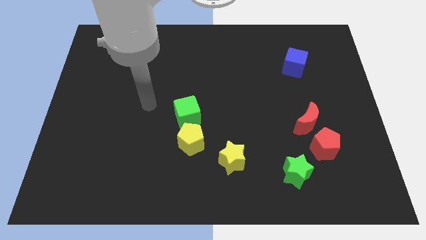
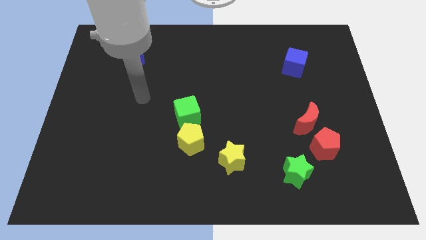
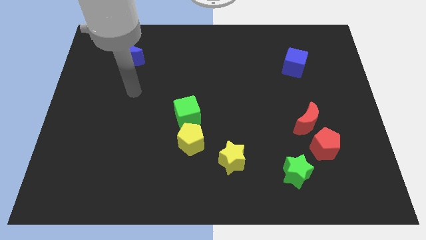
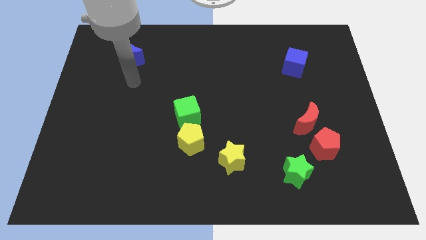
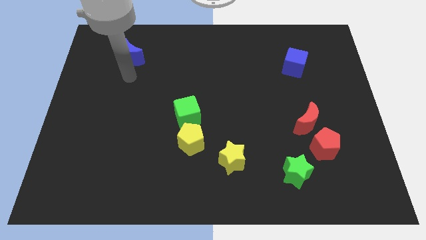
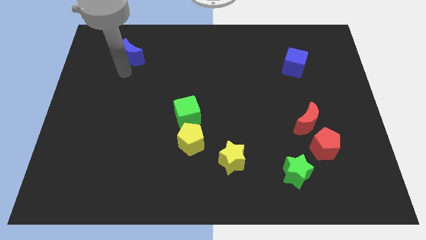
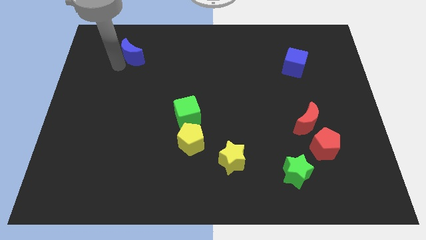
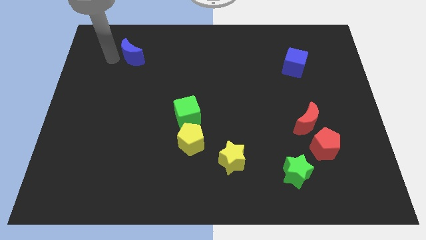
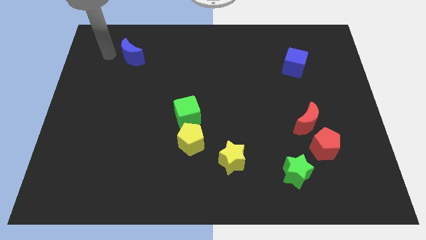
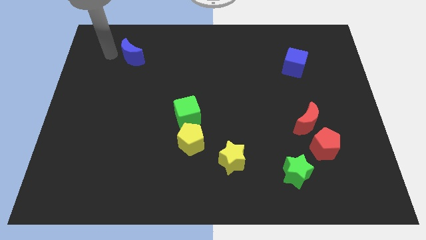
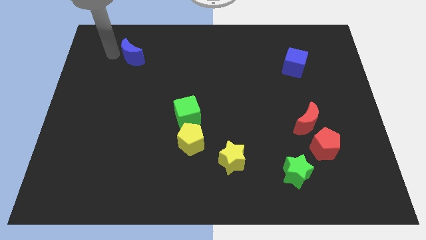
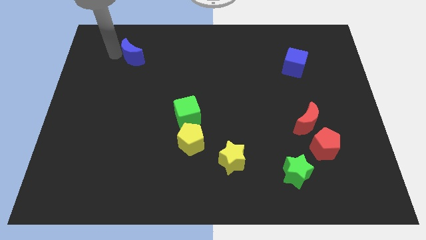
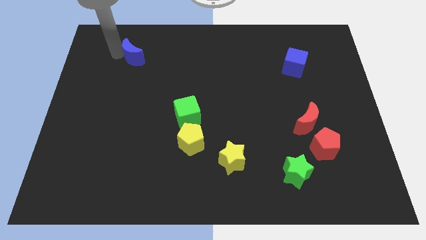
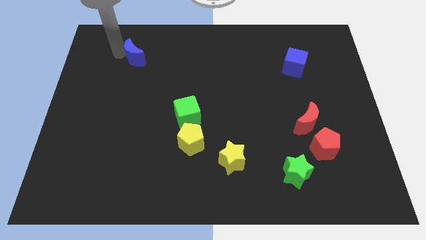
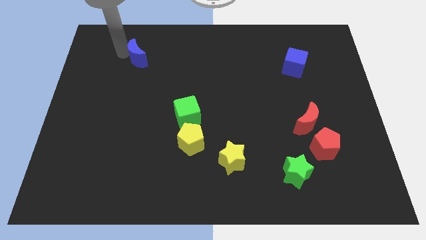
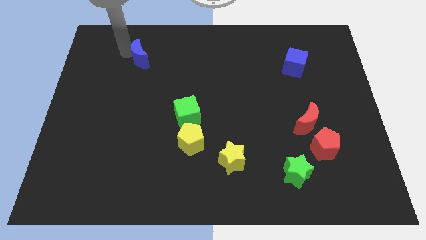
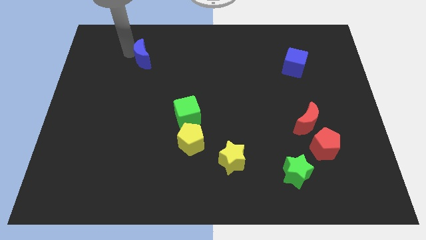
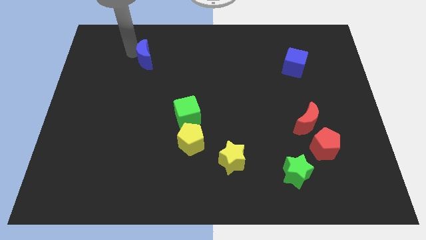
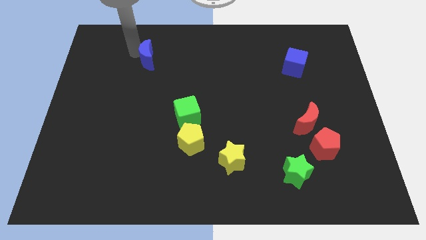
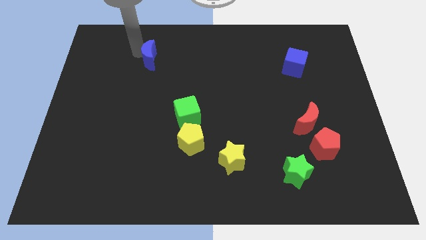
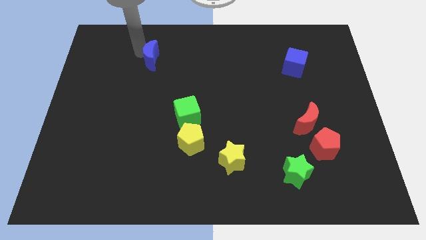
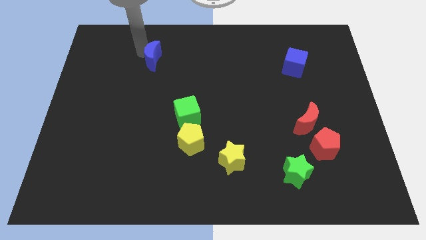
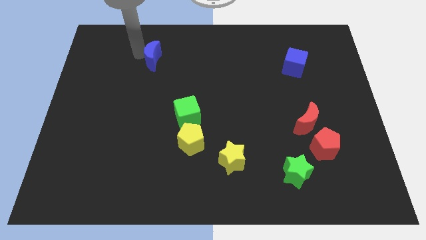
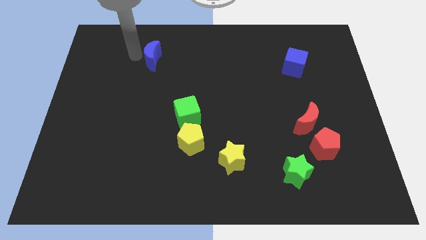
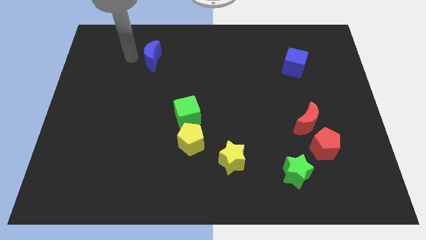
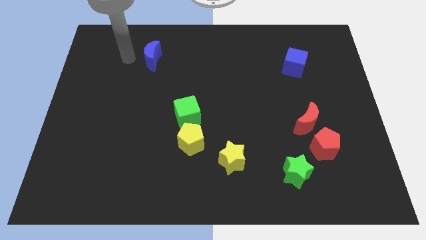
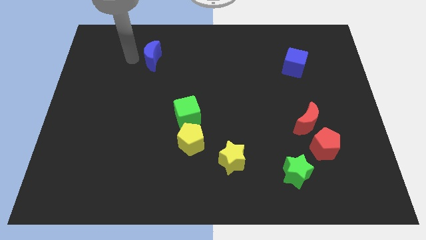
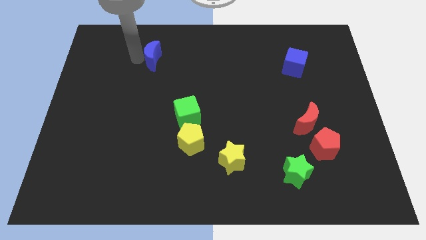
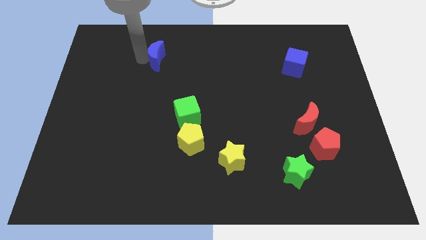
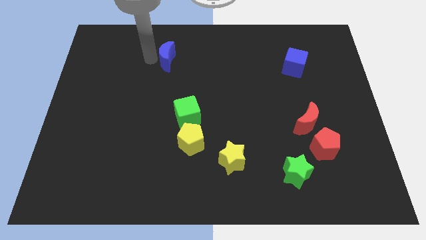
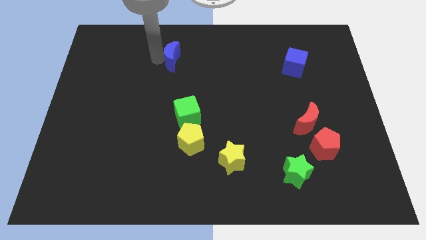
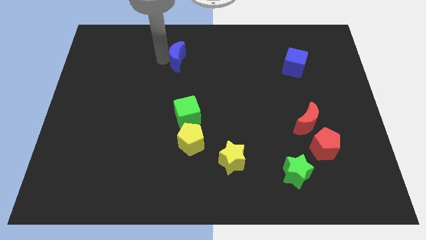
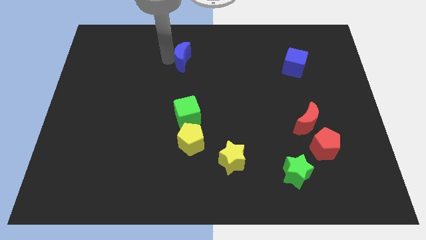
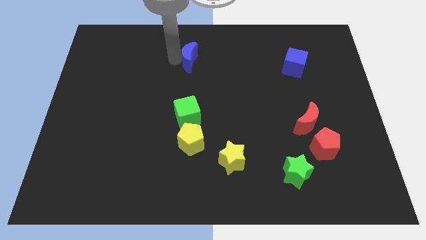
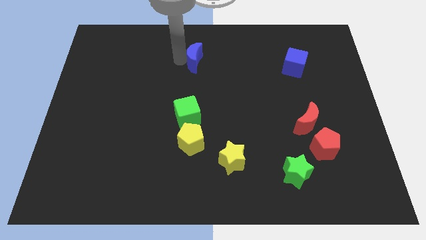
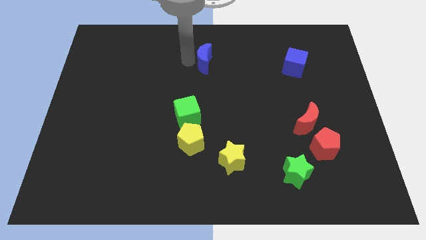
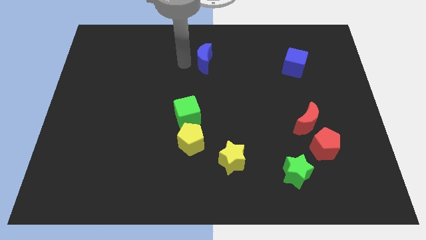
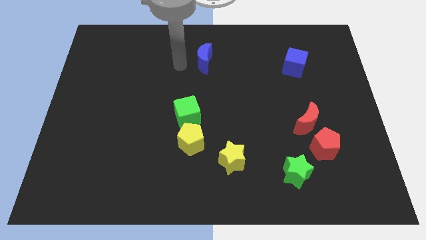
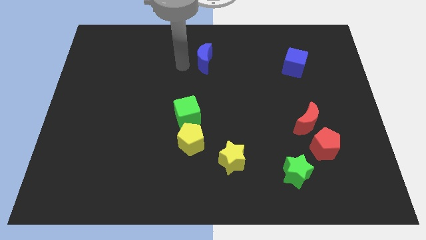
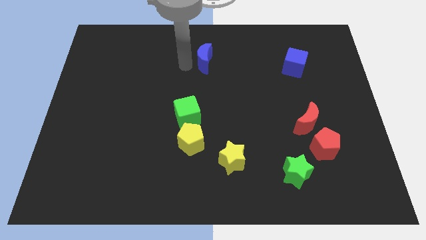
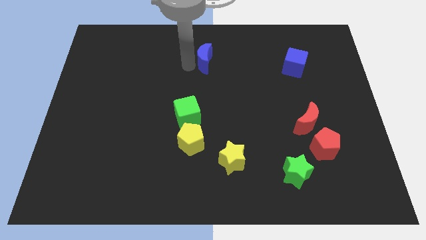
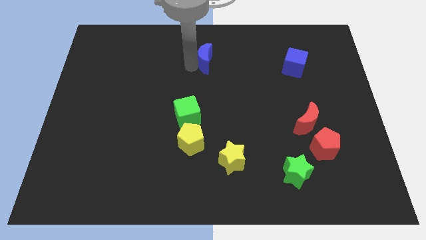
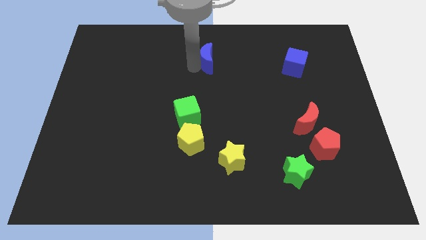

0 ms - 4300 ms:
move the blue moon right

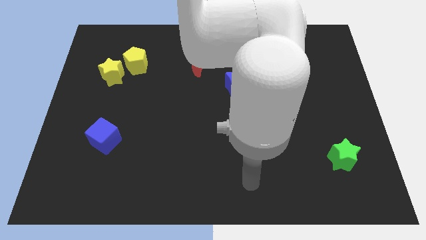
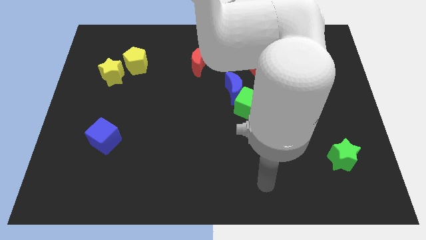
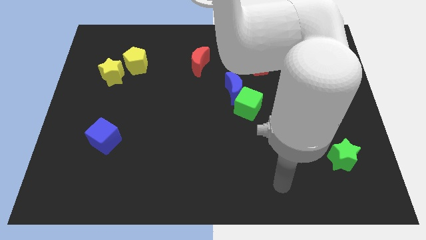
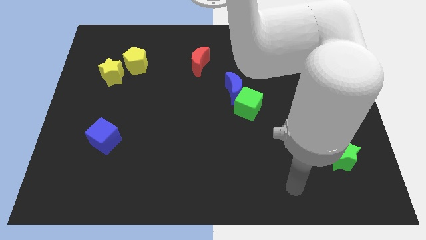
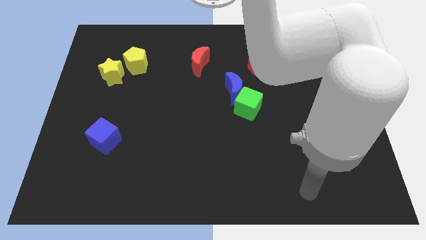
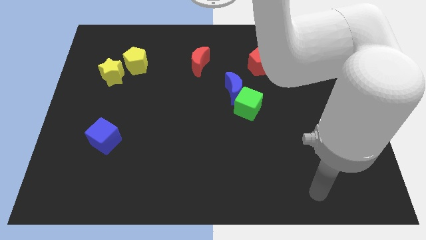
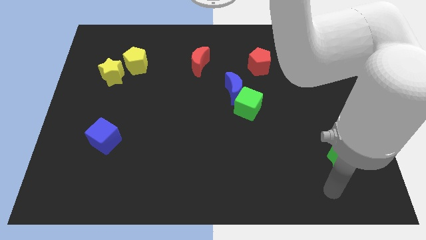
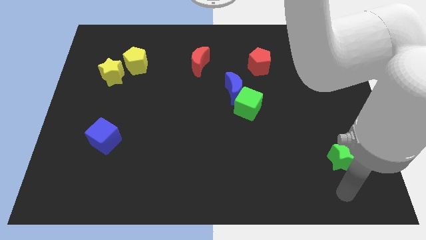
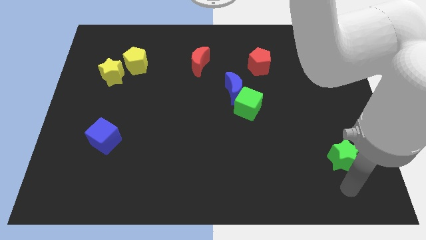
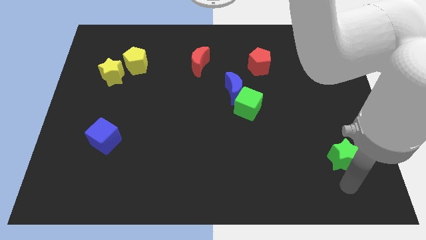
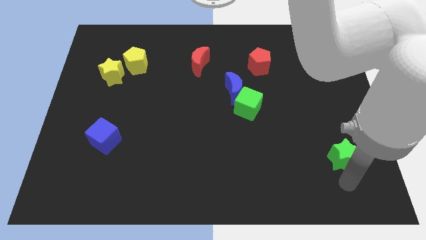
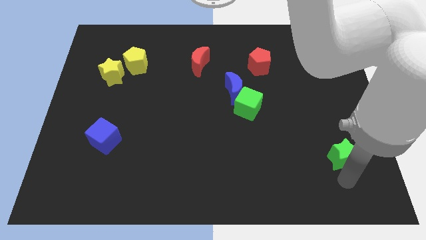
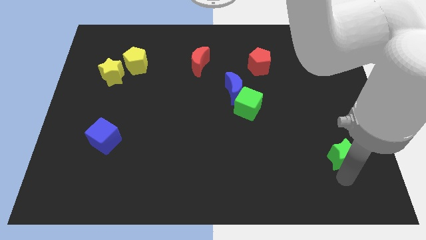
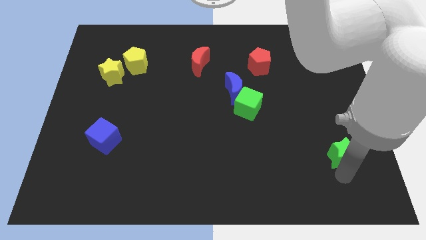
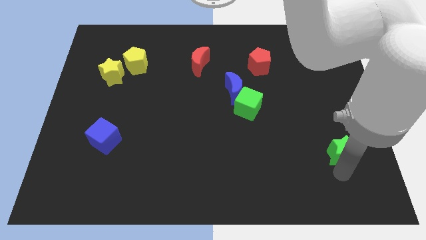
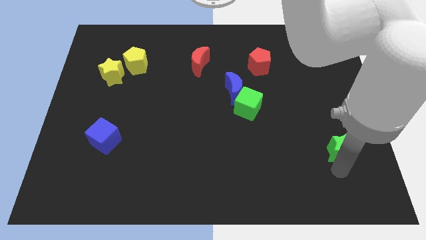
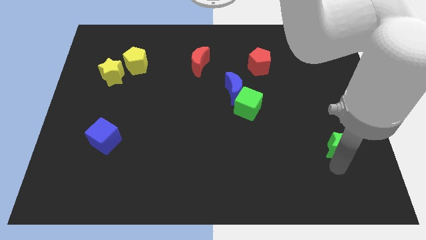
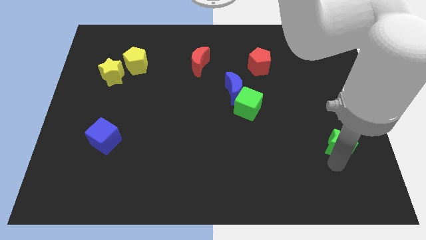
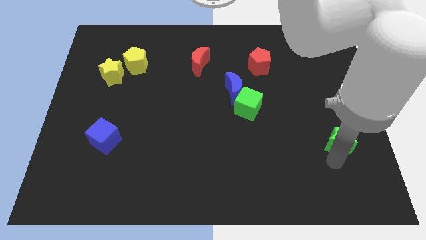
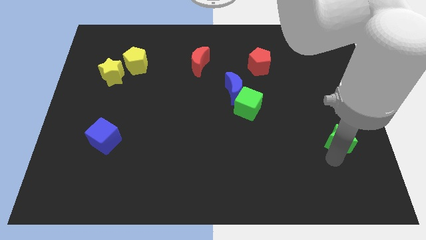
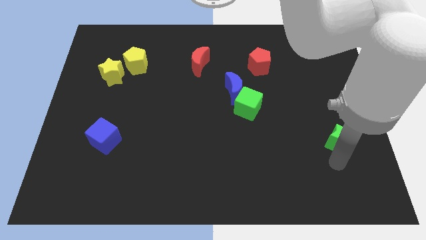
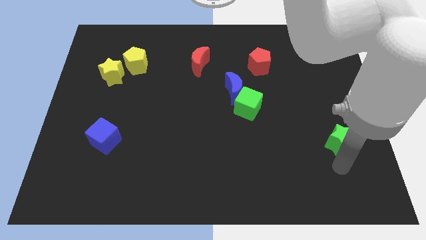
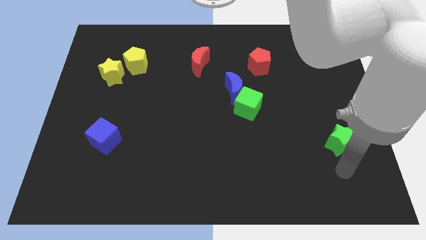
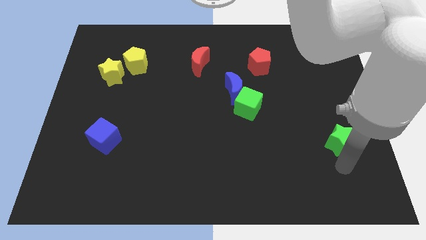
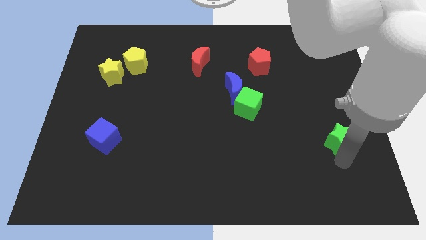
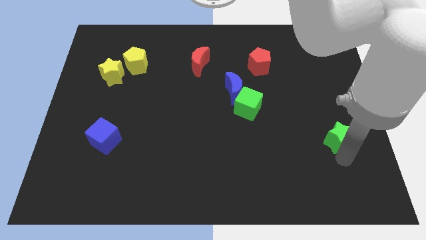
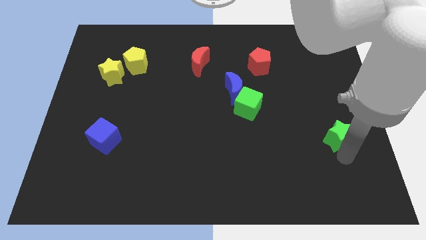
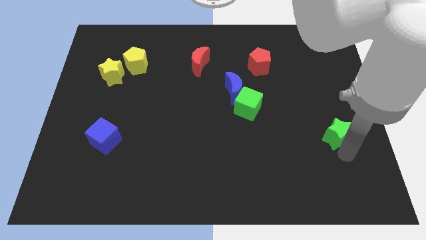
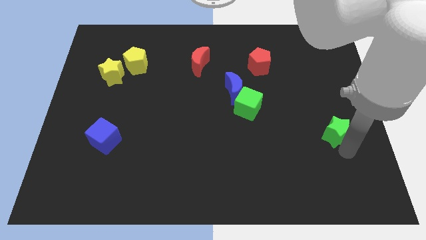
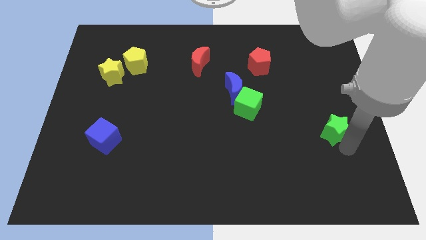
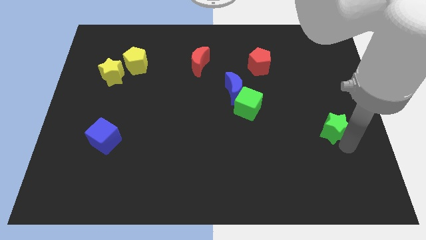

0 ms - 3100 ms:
slide the green star a little bit up
